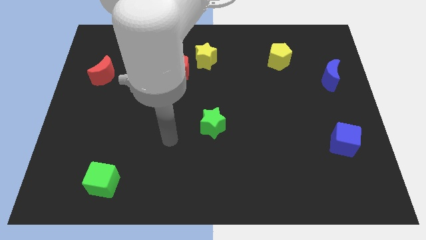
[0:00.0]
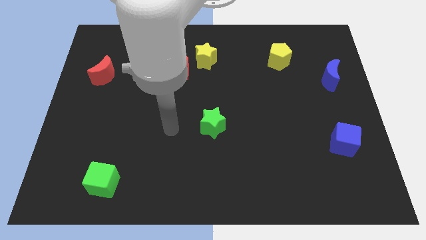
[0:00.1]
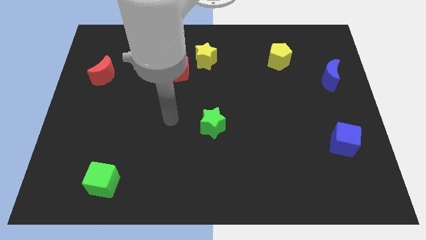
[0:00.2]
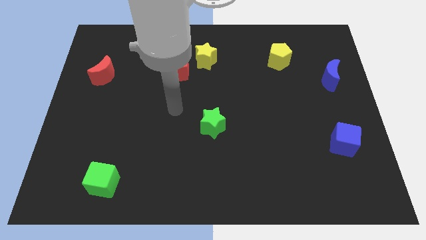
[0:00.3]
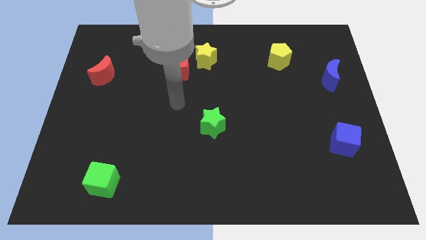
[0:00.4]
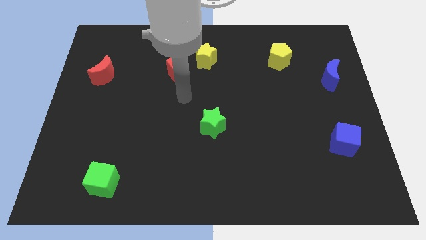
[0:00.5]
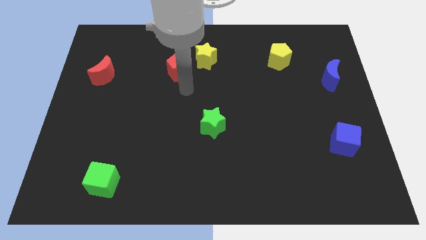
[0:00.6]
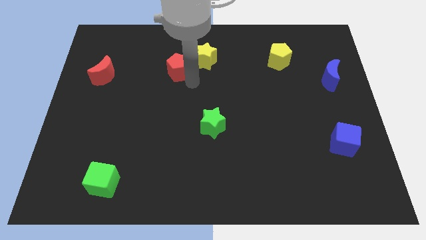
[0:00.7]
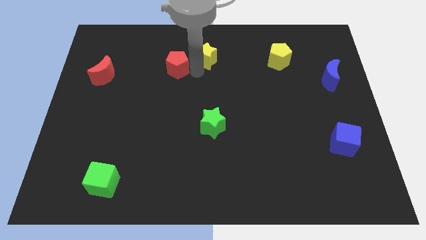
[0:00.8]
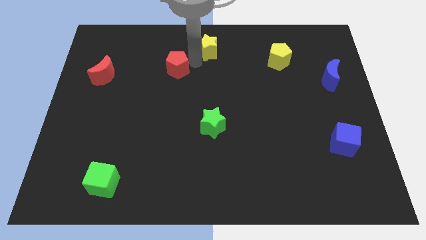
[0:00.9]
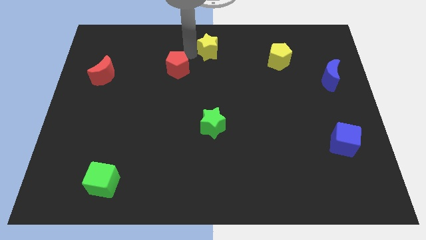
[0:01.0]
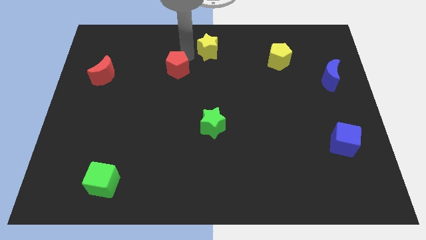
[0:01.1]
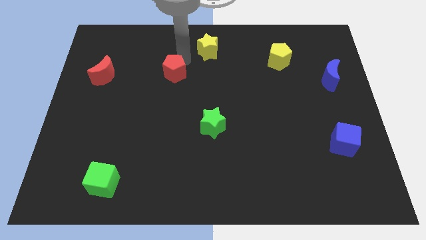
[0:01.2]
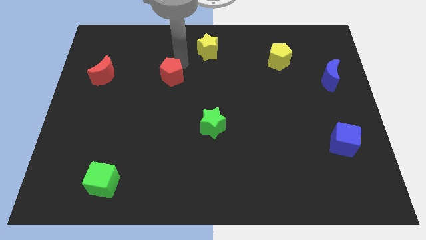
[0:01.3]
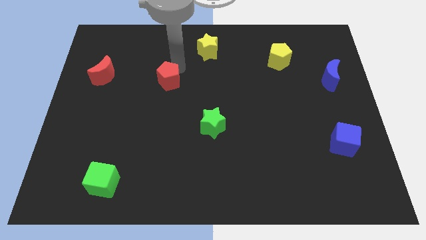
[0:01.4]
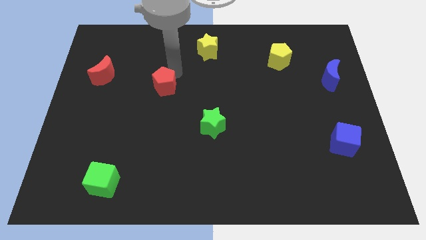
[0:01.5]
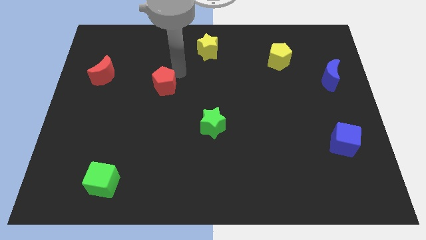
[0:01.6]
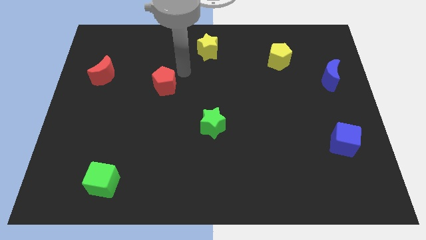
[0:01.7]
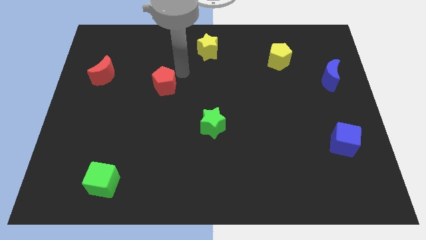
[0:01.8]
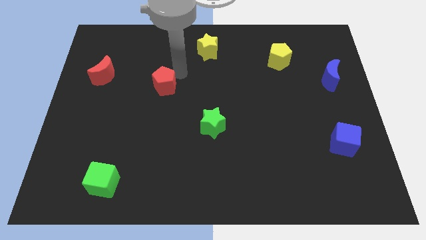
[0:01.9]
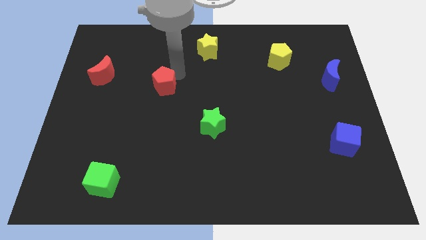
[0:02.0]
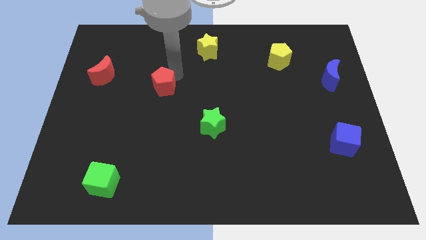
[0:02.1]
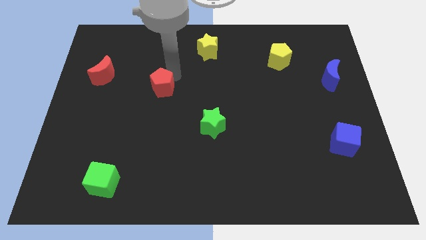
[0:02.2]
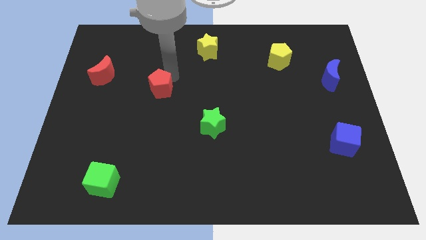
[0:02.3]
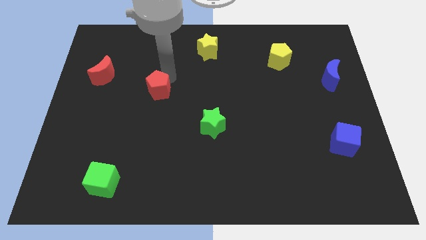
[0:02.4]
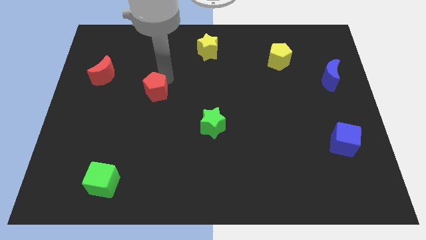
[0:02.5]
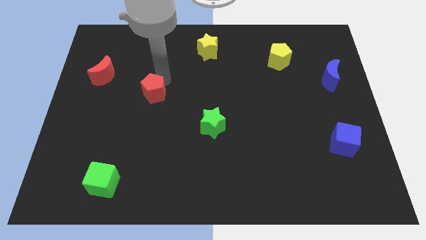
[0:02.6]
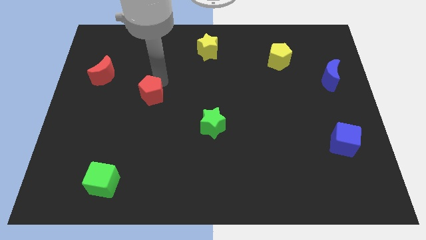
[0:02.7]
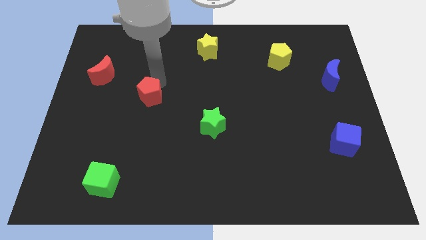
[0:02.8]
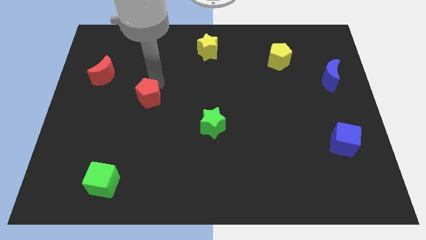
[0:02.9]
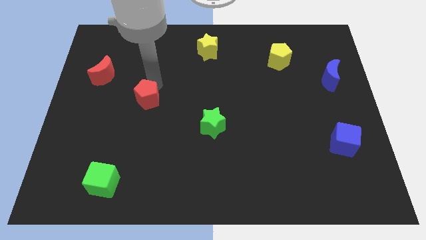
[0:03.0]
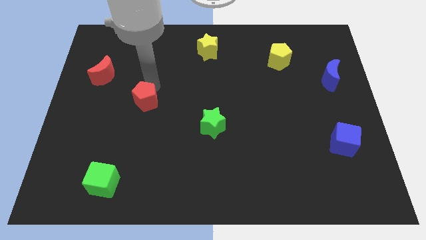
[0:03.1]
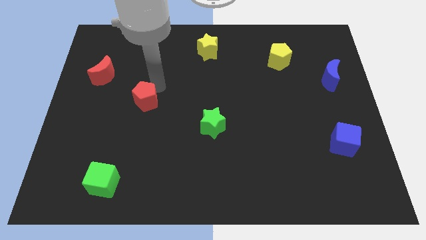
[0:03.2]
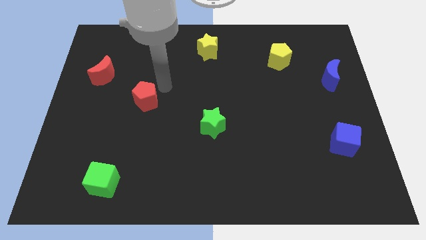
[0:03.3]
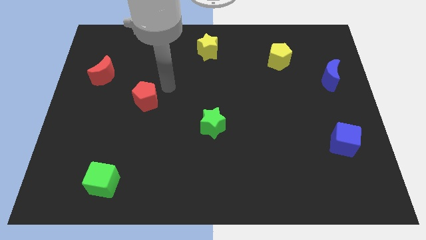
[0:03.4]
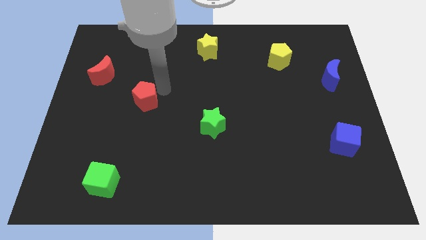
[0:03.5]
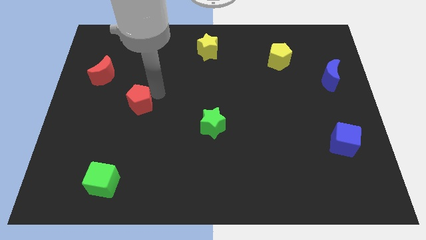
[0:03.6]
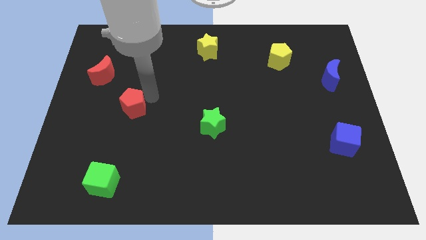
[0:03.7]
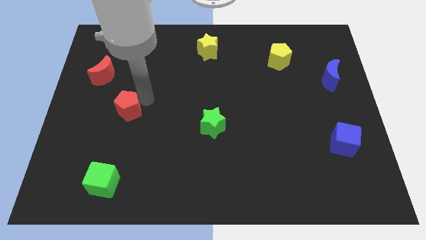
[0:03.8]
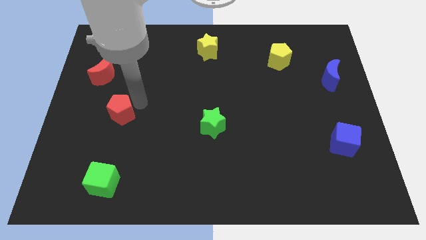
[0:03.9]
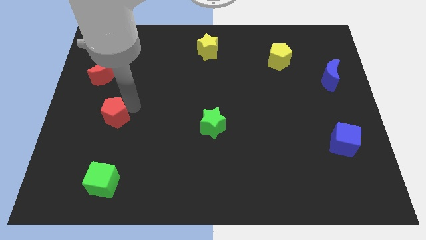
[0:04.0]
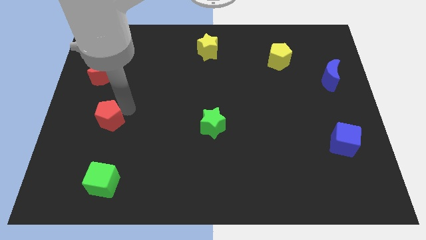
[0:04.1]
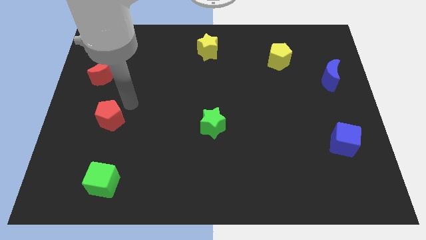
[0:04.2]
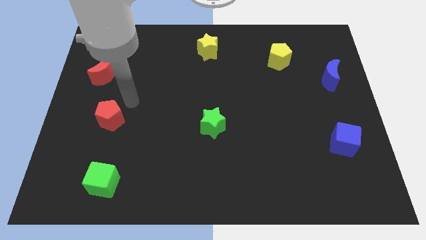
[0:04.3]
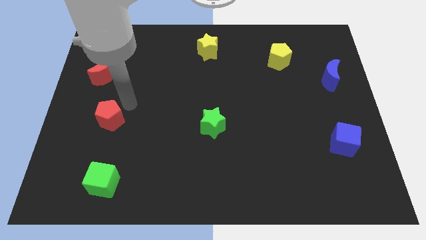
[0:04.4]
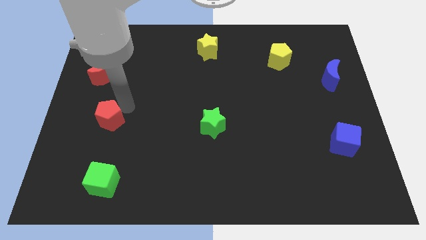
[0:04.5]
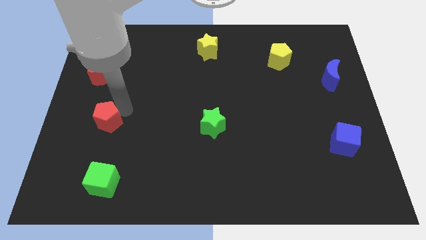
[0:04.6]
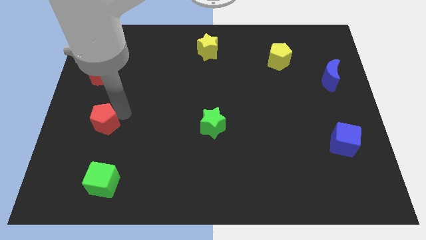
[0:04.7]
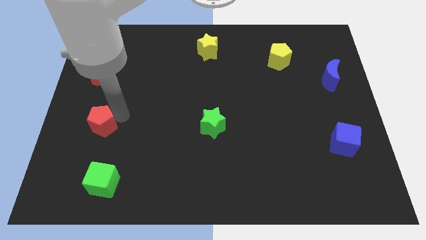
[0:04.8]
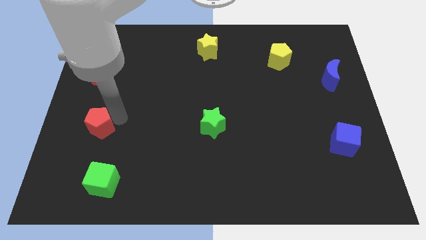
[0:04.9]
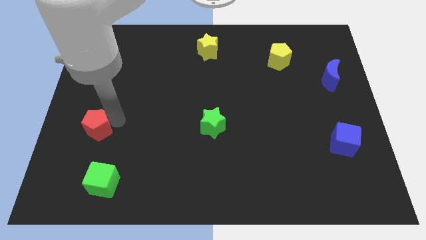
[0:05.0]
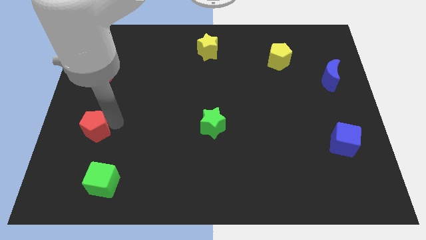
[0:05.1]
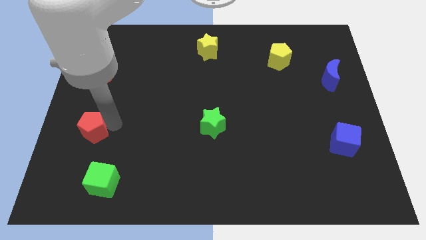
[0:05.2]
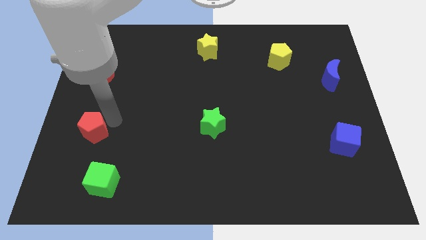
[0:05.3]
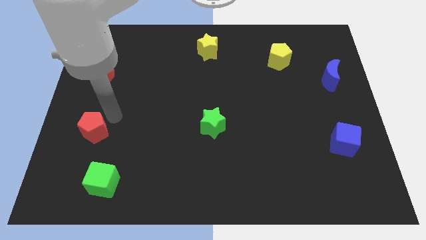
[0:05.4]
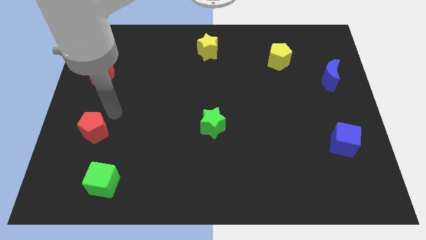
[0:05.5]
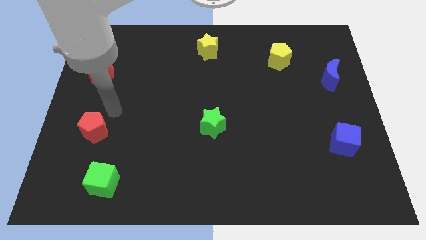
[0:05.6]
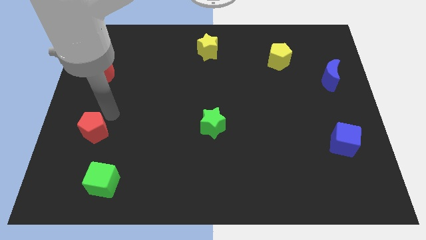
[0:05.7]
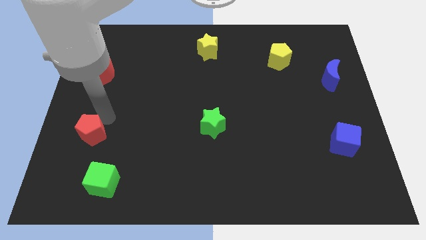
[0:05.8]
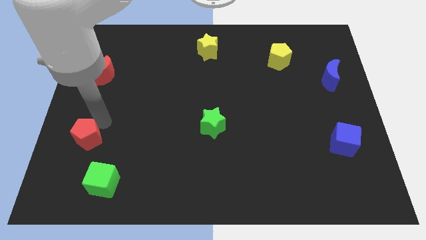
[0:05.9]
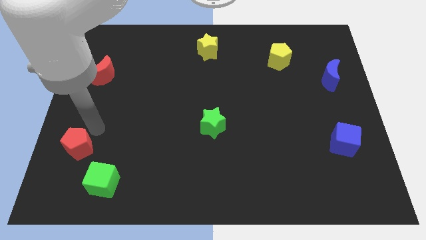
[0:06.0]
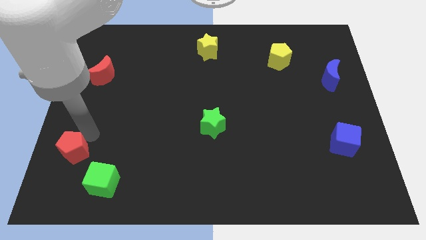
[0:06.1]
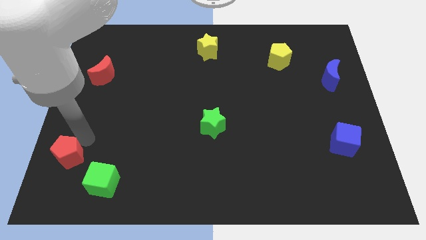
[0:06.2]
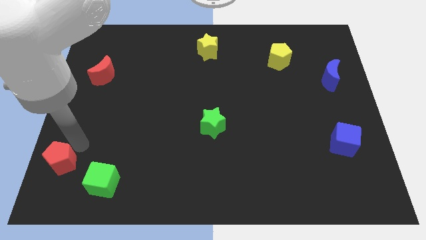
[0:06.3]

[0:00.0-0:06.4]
put the red pentagon to the bottom left of the board

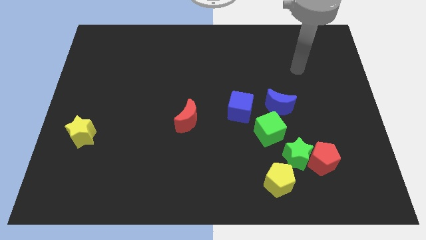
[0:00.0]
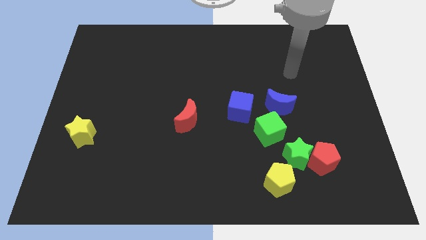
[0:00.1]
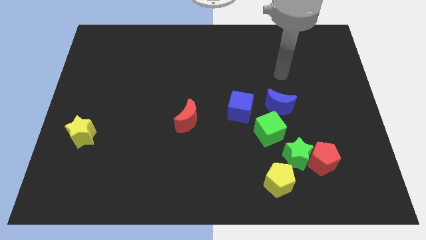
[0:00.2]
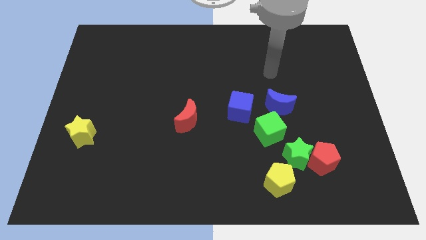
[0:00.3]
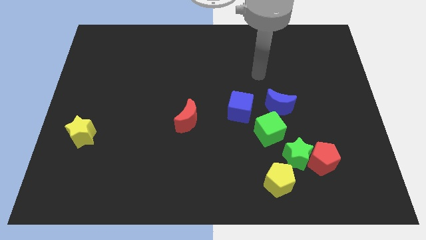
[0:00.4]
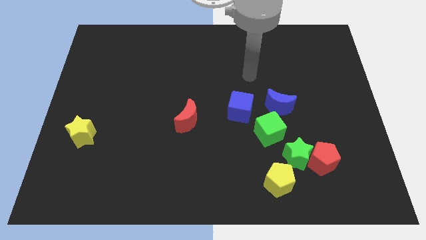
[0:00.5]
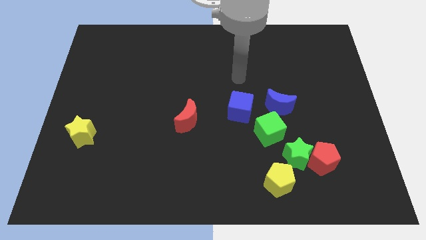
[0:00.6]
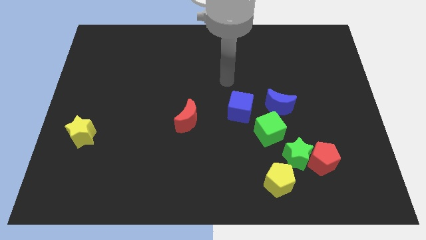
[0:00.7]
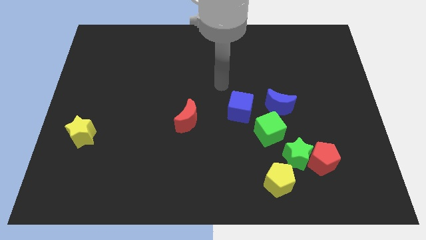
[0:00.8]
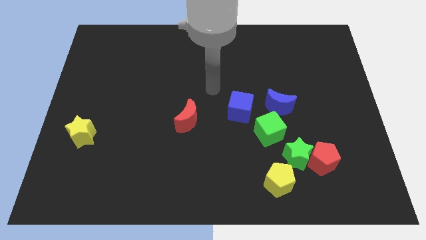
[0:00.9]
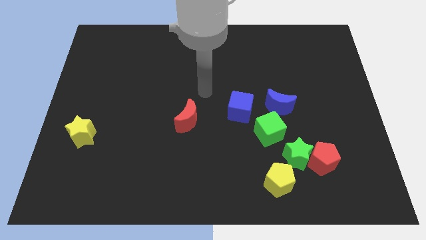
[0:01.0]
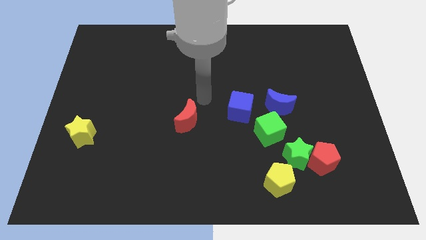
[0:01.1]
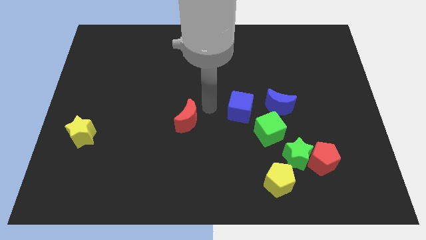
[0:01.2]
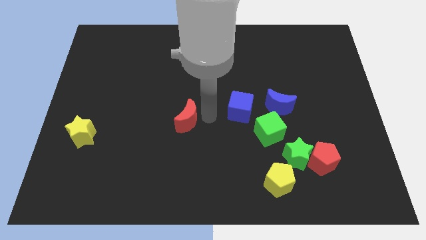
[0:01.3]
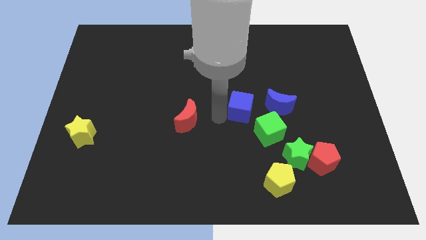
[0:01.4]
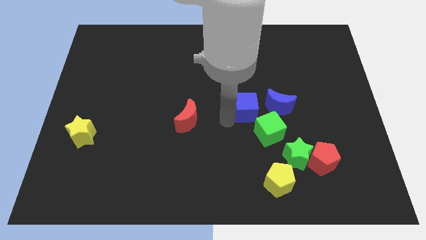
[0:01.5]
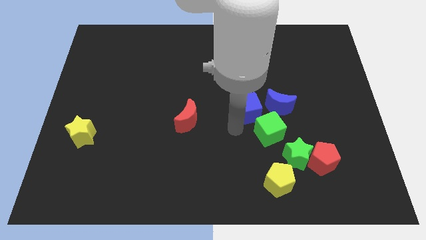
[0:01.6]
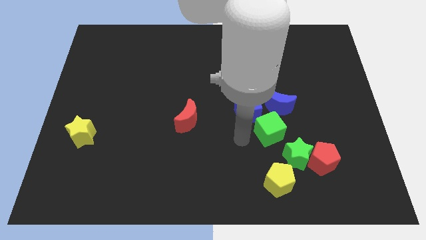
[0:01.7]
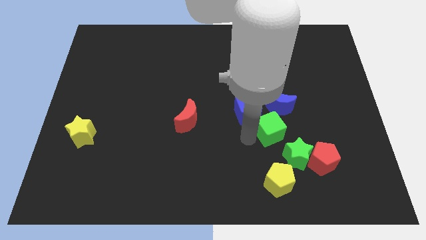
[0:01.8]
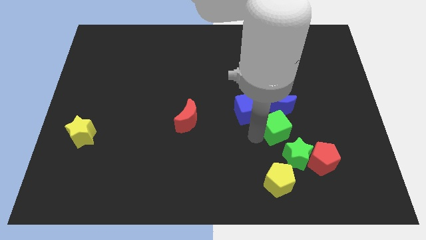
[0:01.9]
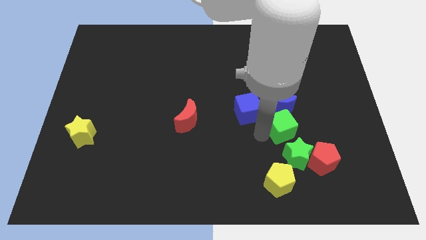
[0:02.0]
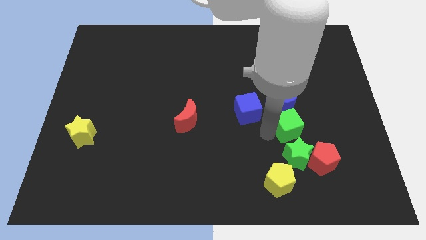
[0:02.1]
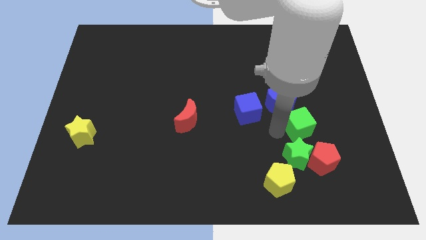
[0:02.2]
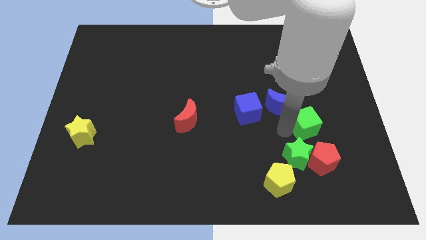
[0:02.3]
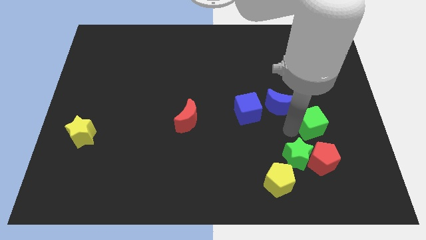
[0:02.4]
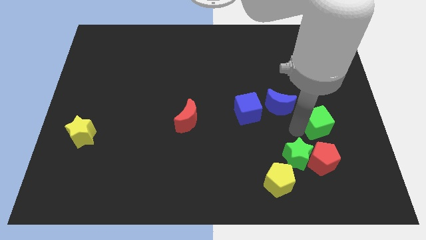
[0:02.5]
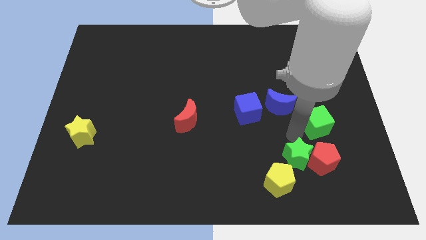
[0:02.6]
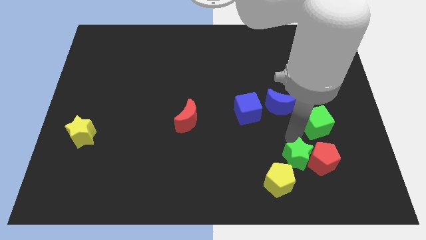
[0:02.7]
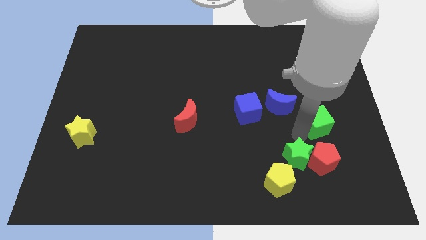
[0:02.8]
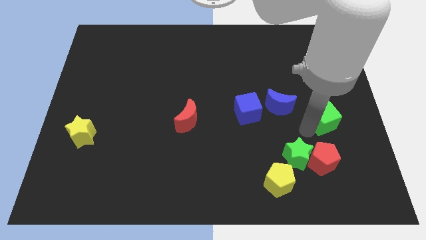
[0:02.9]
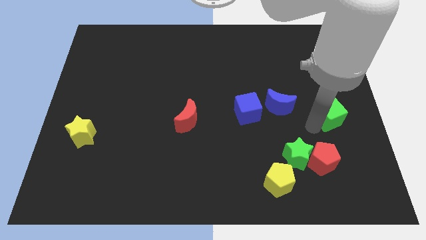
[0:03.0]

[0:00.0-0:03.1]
put the green cube to the right side
